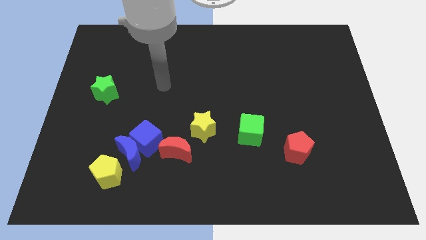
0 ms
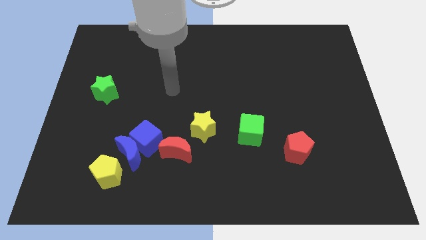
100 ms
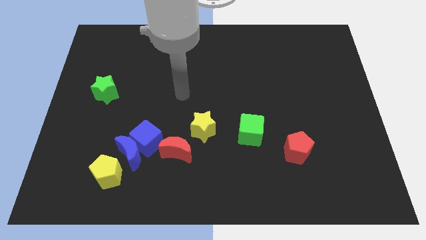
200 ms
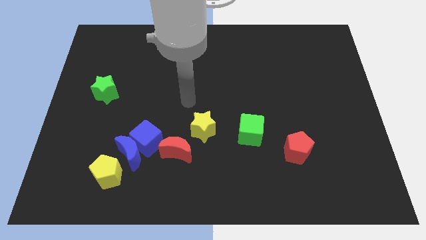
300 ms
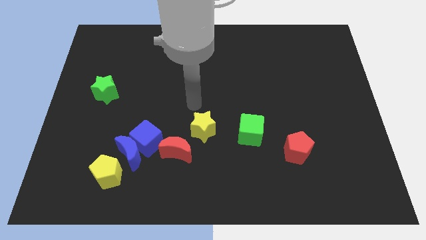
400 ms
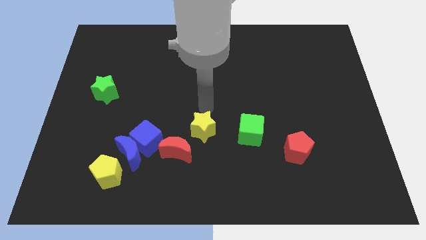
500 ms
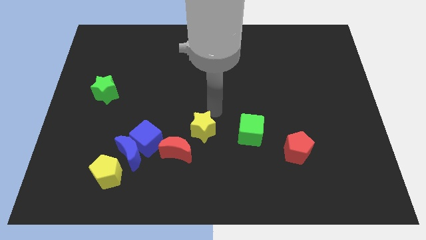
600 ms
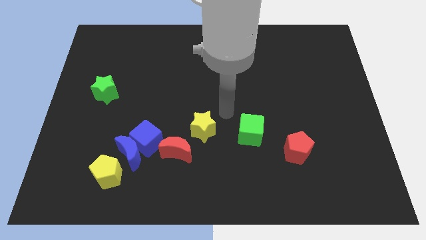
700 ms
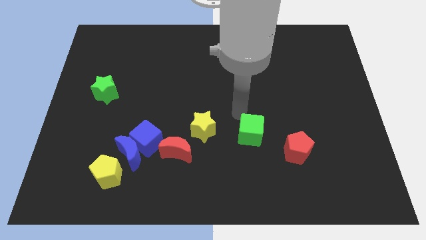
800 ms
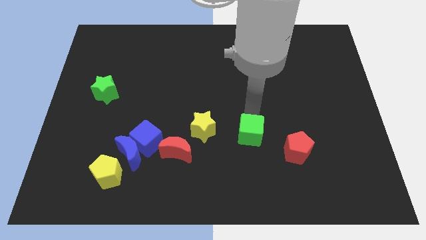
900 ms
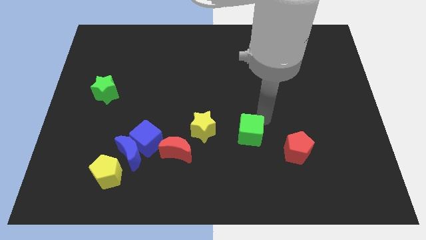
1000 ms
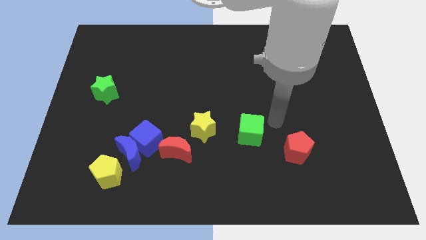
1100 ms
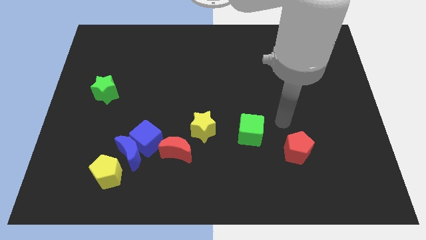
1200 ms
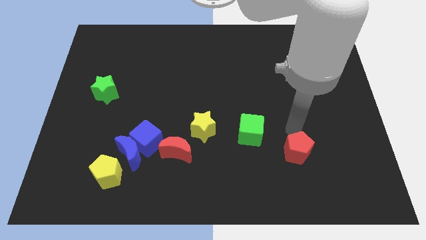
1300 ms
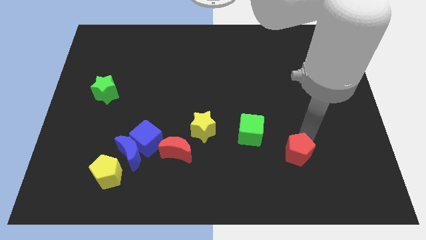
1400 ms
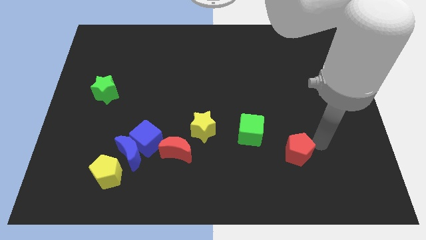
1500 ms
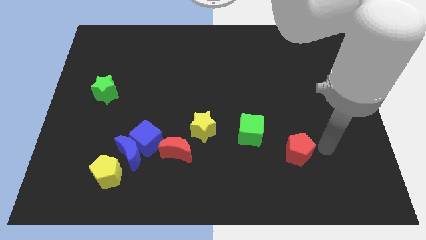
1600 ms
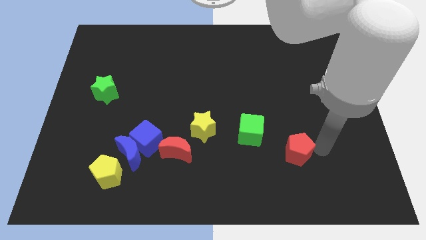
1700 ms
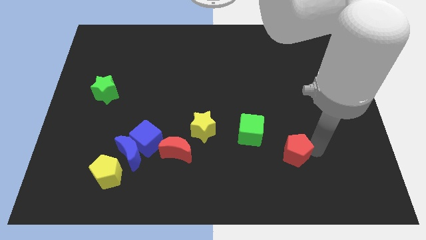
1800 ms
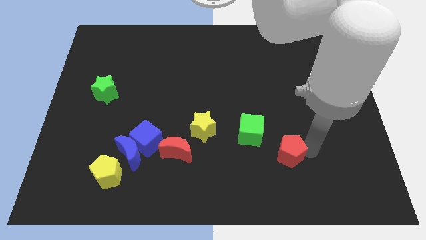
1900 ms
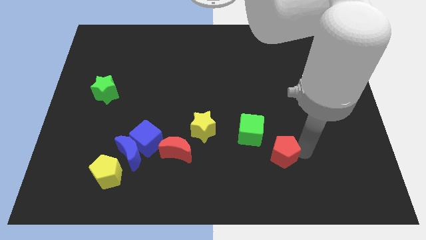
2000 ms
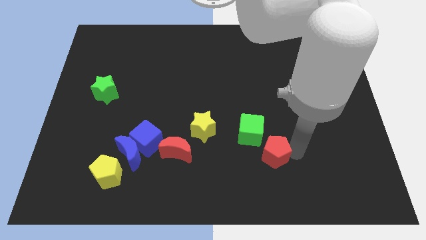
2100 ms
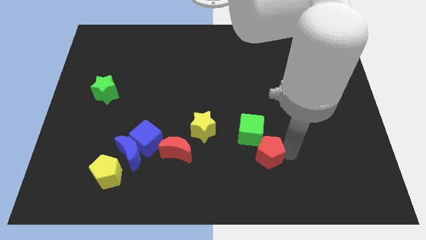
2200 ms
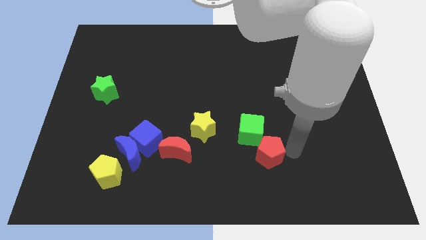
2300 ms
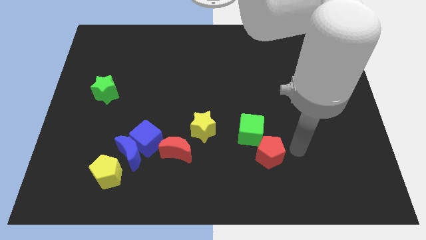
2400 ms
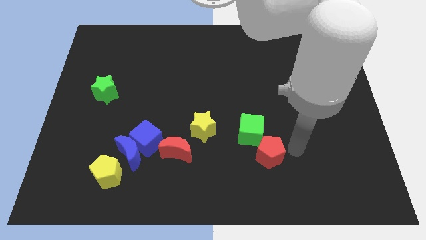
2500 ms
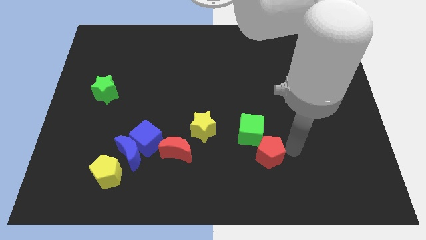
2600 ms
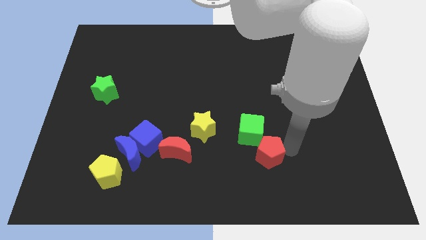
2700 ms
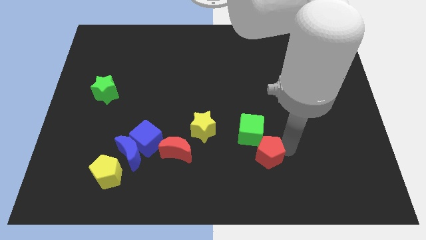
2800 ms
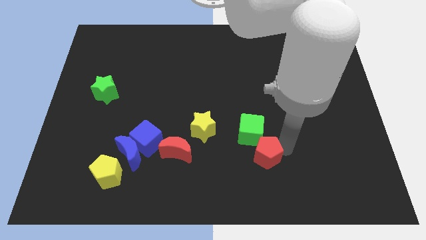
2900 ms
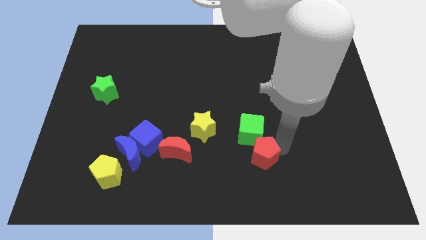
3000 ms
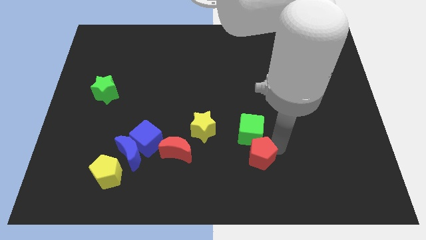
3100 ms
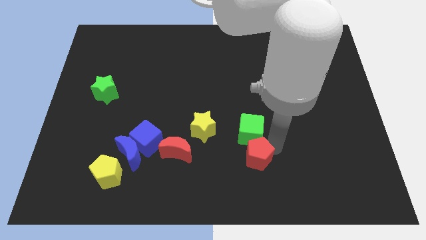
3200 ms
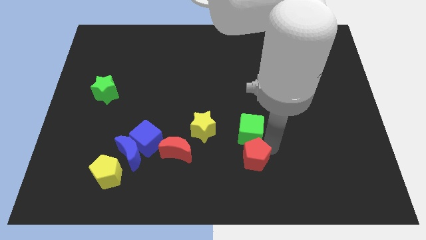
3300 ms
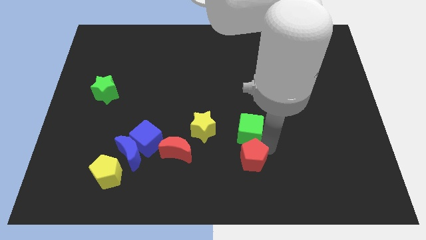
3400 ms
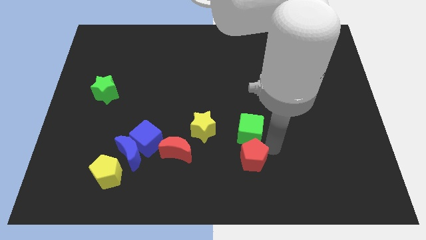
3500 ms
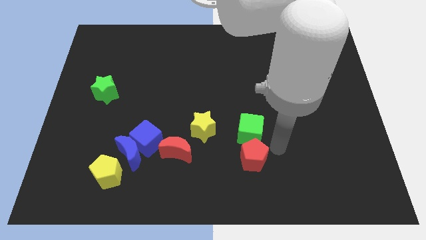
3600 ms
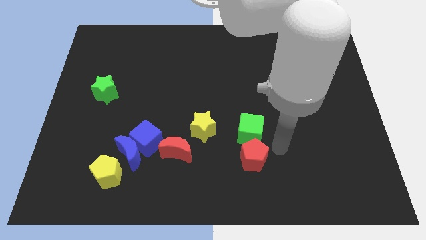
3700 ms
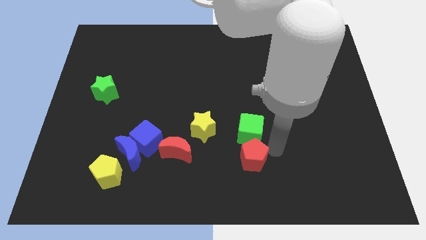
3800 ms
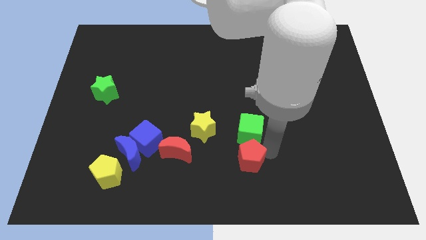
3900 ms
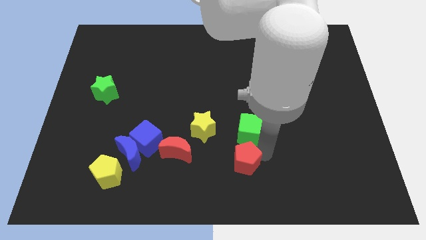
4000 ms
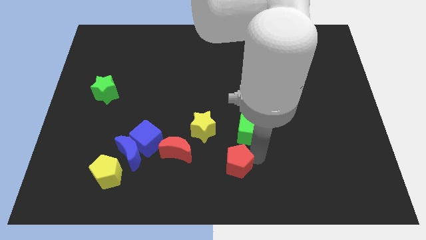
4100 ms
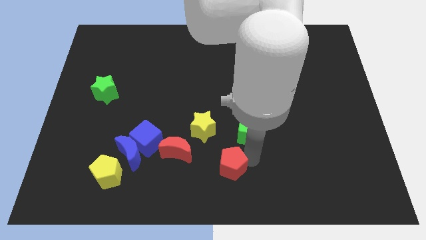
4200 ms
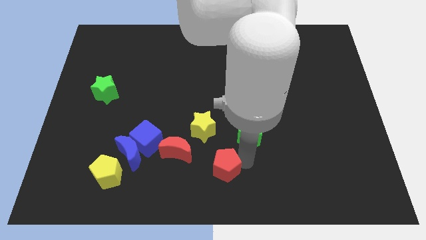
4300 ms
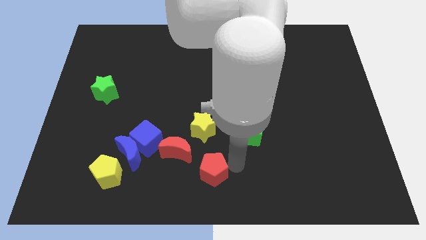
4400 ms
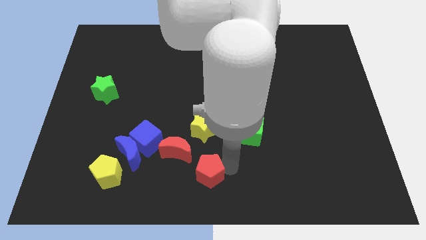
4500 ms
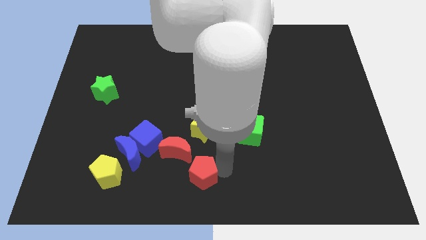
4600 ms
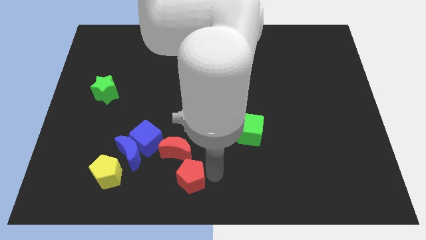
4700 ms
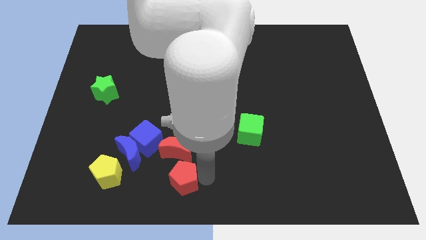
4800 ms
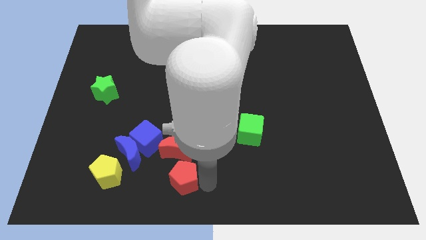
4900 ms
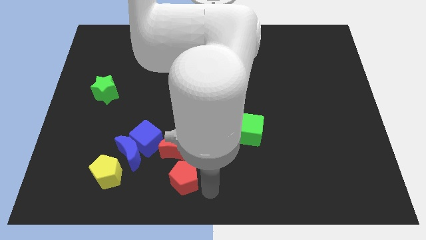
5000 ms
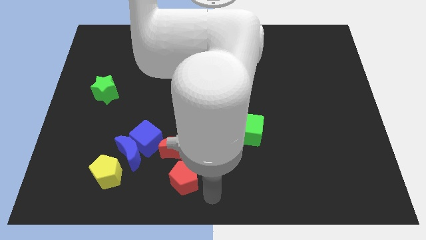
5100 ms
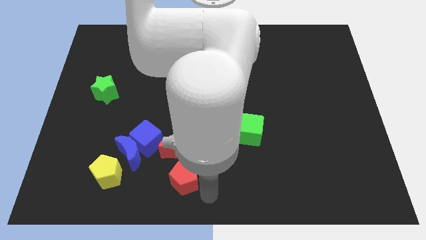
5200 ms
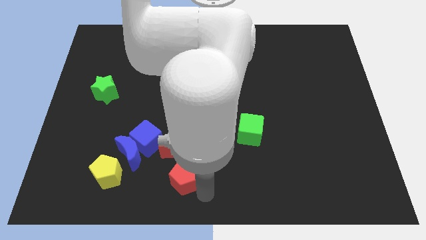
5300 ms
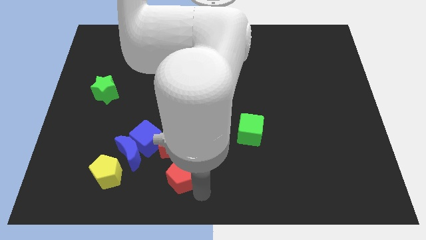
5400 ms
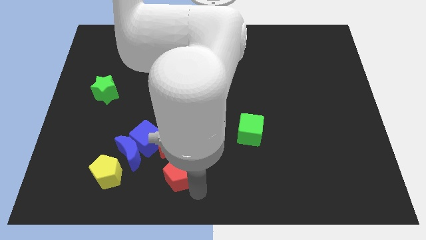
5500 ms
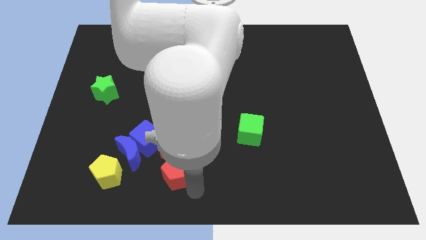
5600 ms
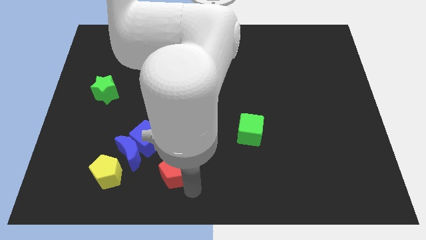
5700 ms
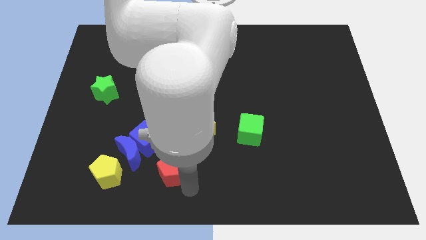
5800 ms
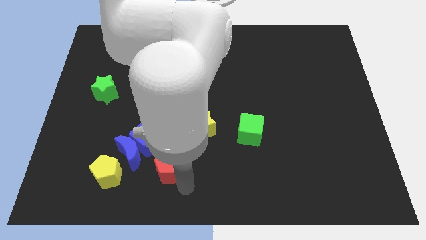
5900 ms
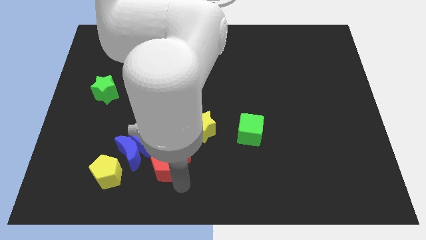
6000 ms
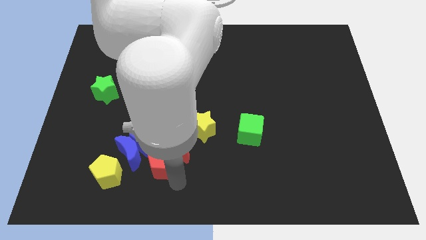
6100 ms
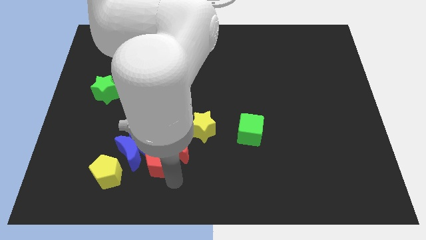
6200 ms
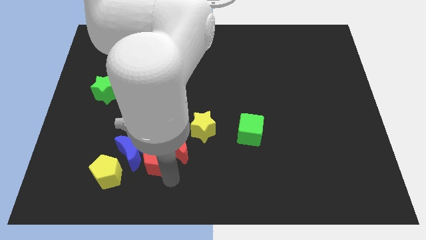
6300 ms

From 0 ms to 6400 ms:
push the red pentagon next to the blue cube

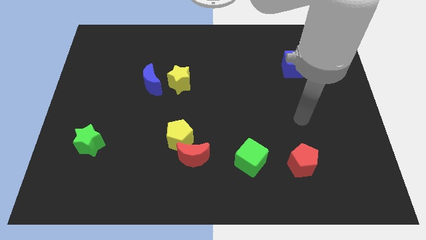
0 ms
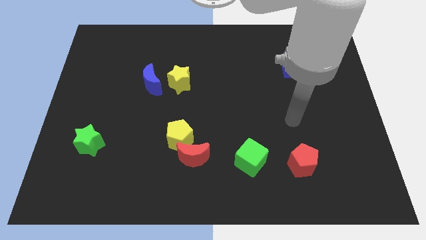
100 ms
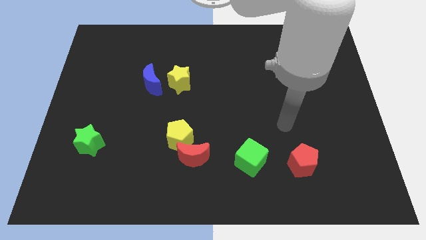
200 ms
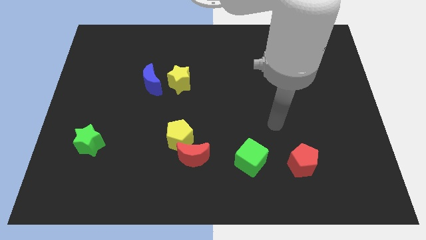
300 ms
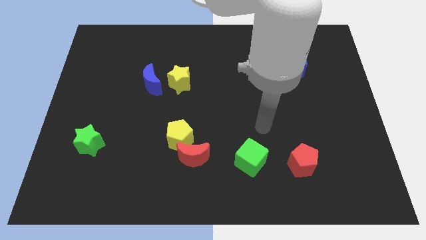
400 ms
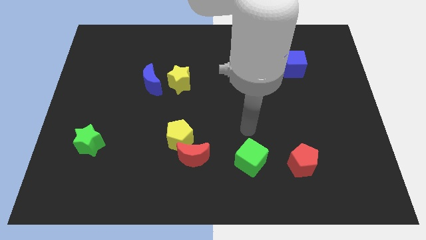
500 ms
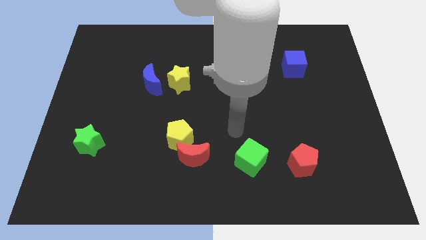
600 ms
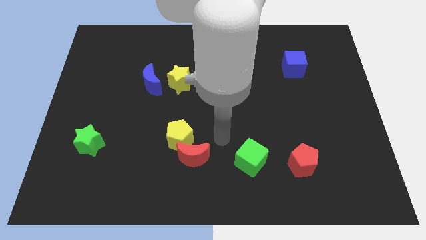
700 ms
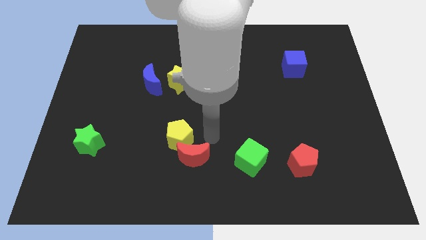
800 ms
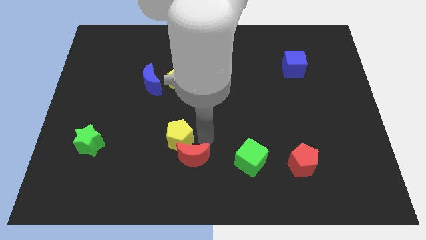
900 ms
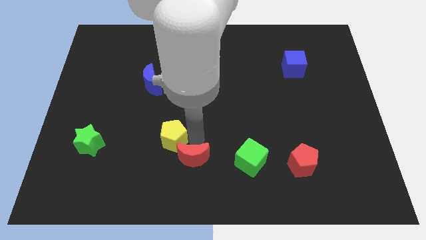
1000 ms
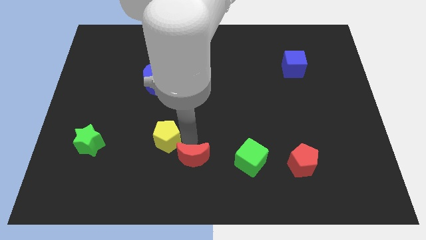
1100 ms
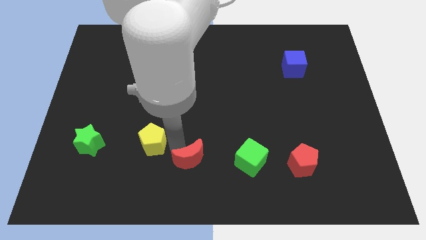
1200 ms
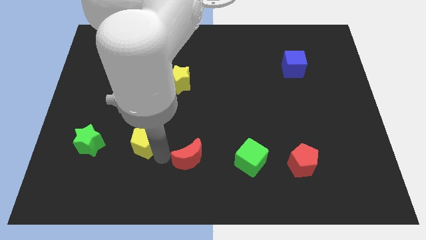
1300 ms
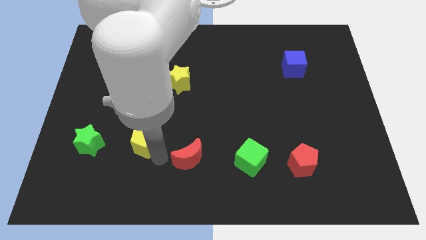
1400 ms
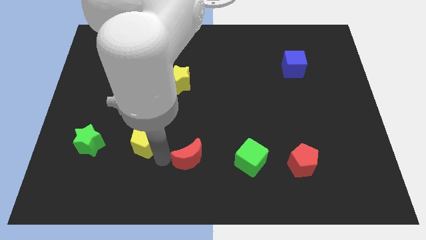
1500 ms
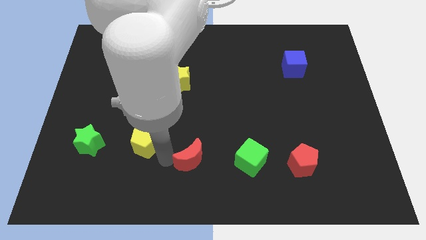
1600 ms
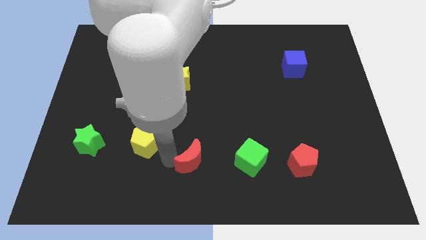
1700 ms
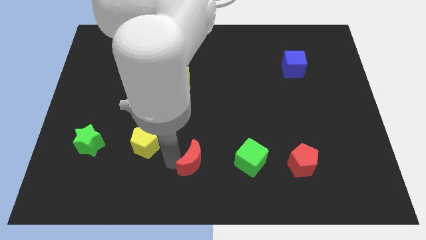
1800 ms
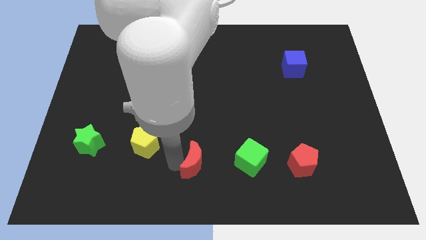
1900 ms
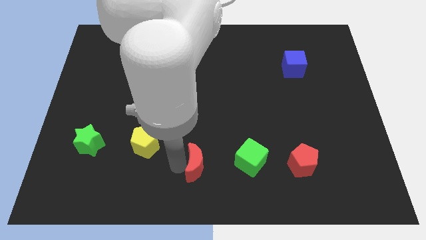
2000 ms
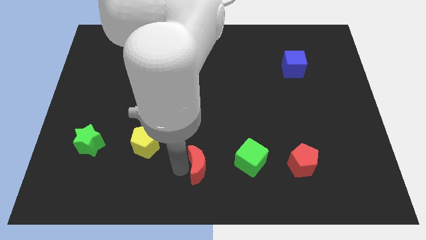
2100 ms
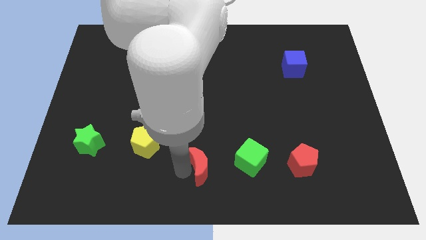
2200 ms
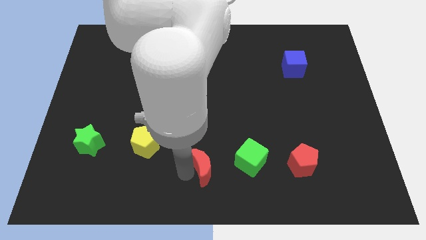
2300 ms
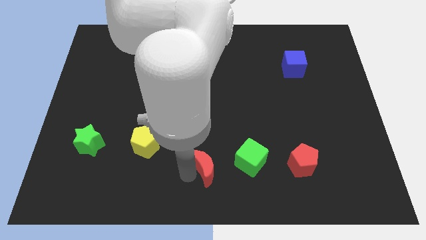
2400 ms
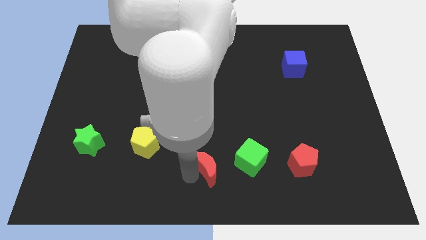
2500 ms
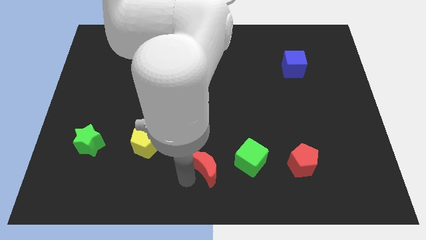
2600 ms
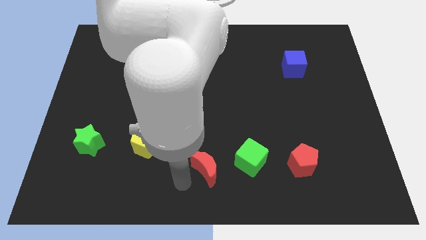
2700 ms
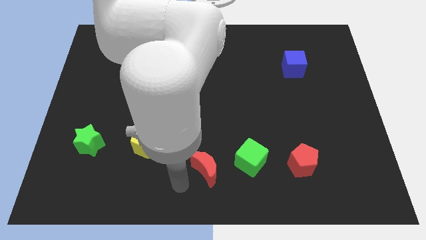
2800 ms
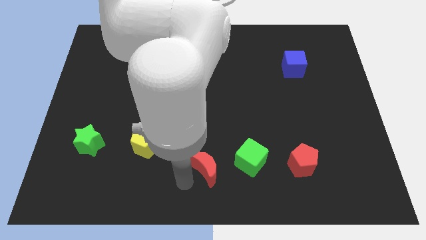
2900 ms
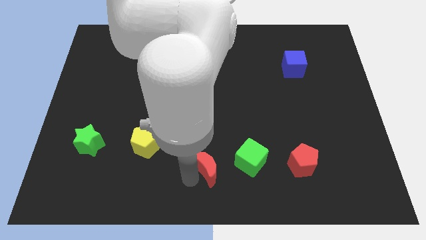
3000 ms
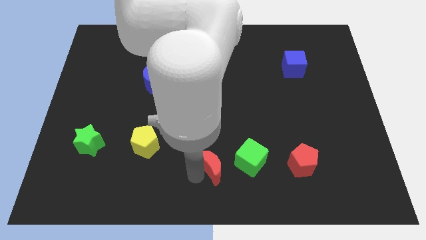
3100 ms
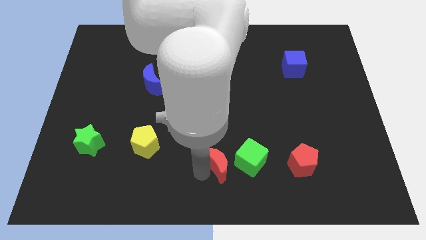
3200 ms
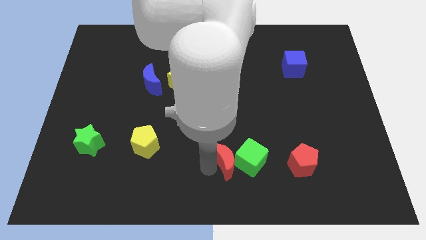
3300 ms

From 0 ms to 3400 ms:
put the red moon close to the green cube
